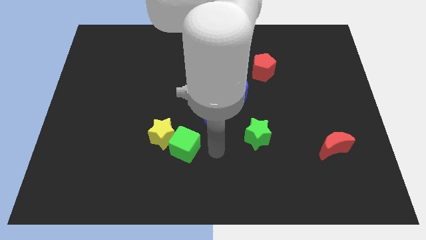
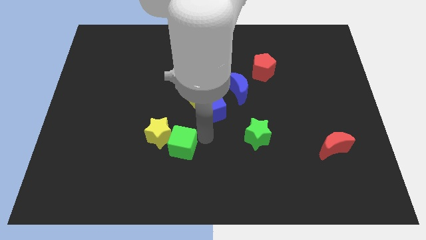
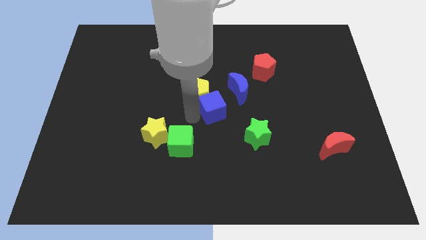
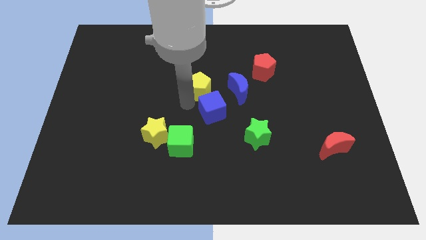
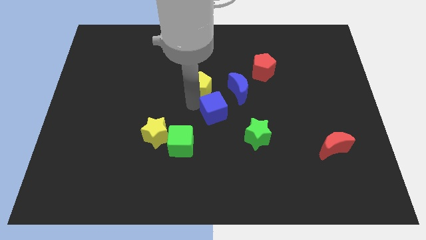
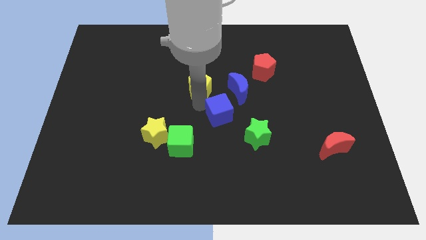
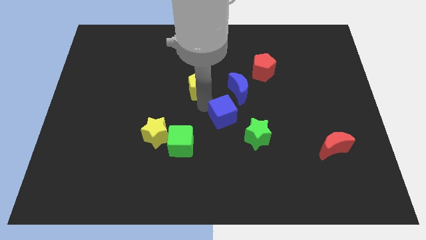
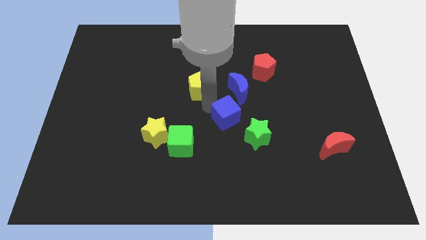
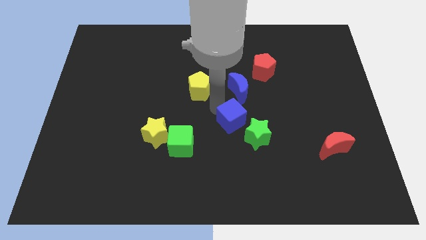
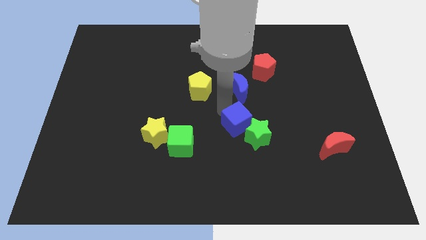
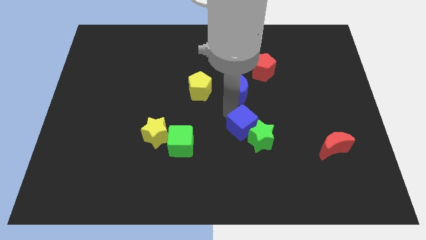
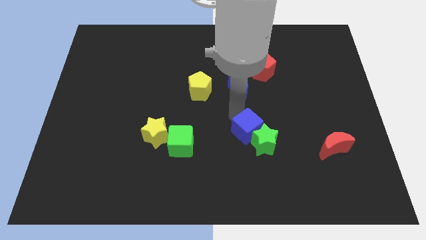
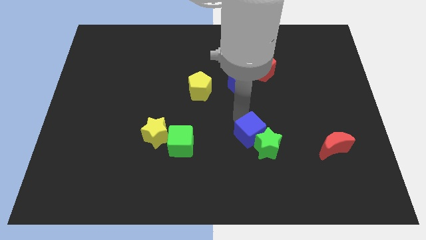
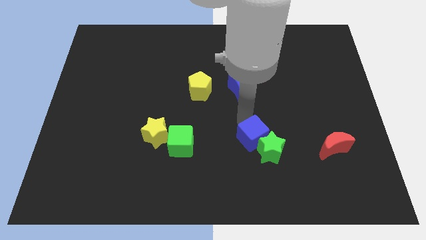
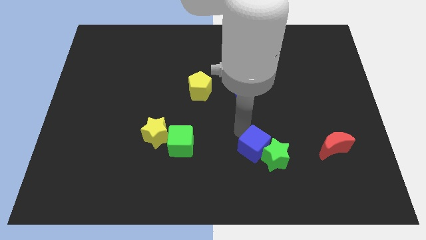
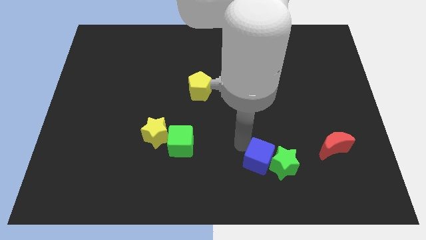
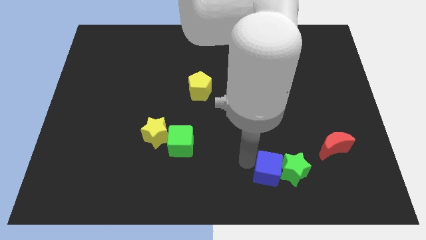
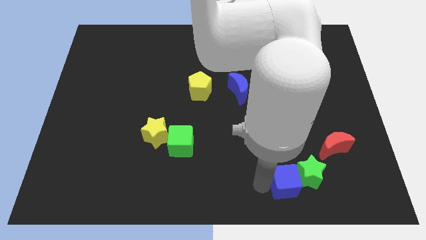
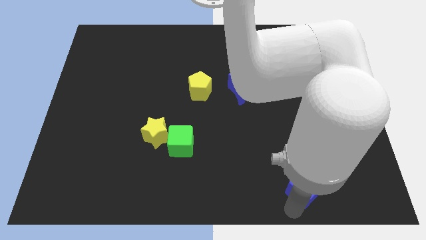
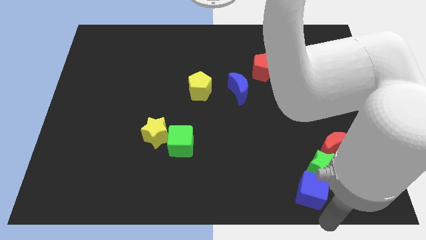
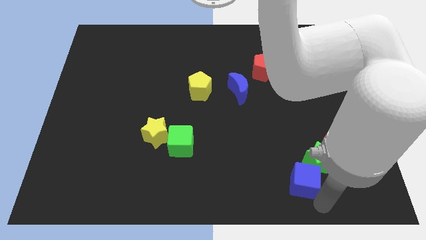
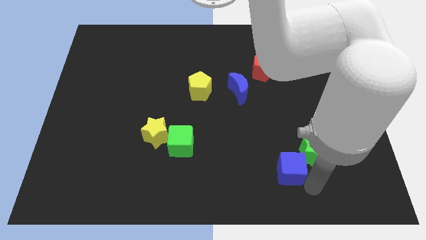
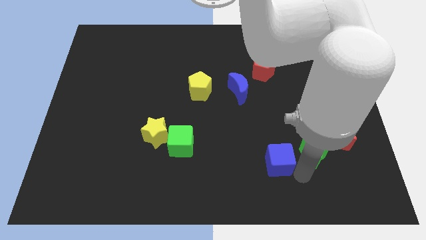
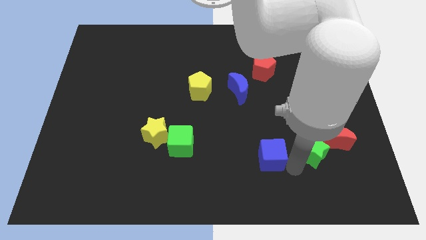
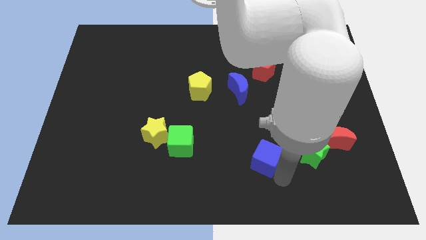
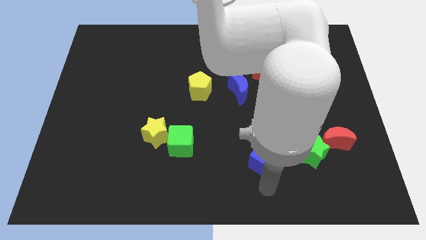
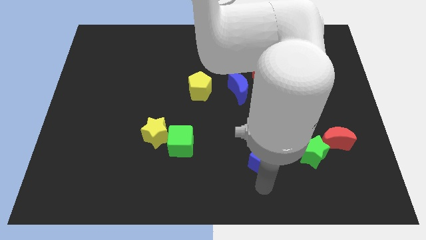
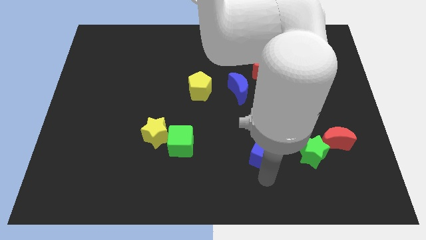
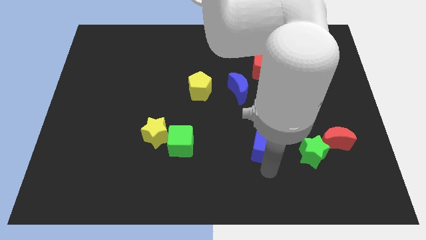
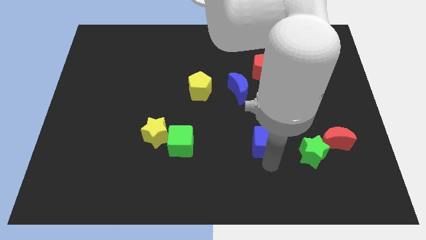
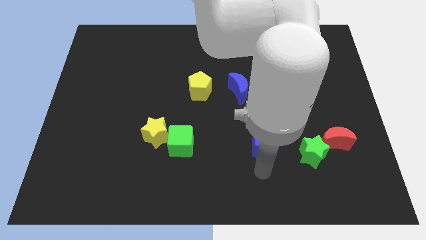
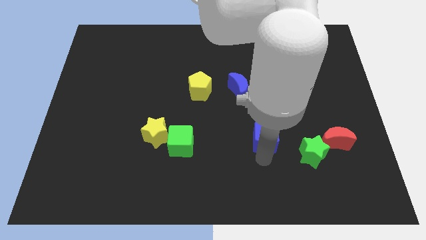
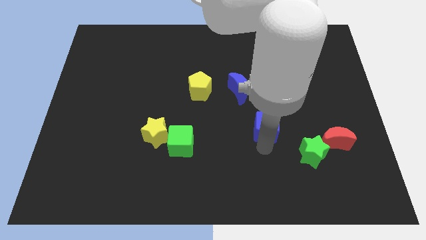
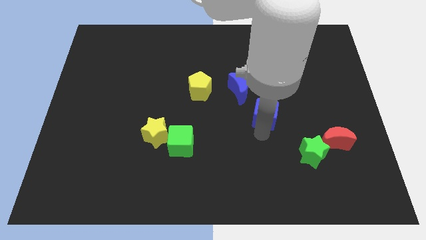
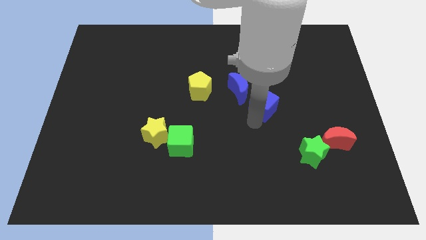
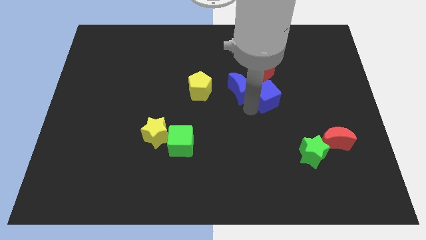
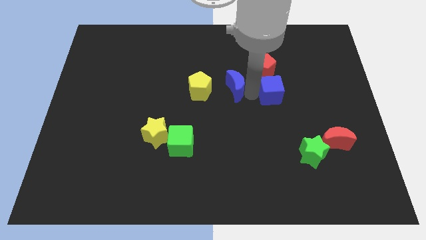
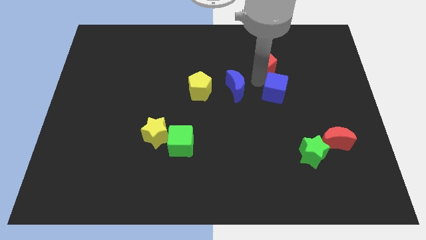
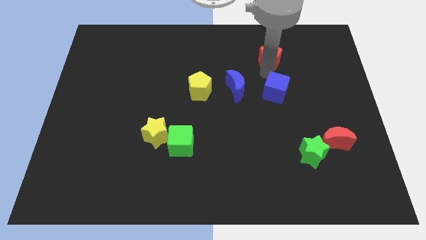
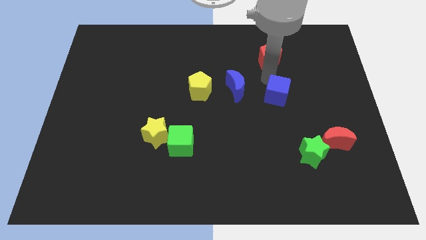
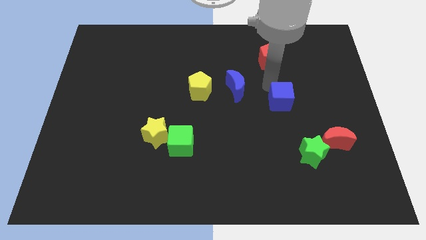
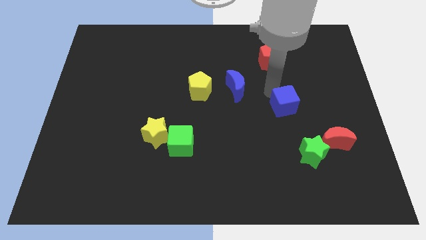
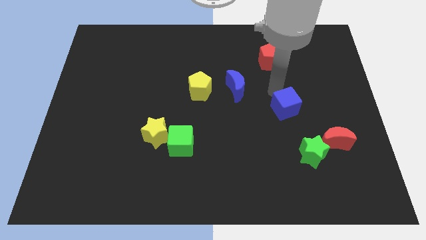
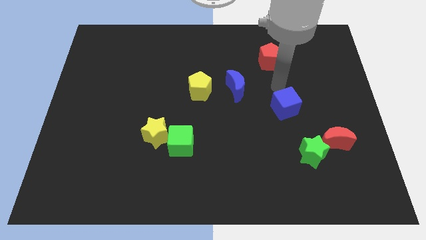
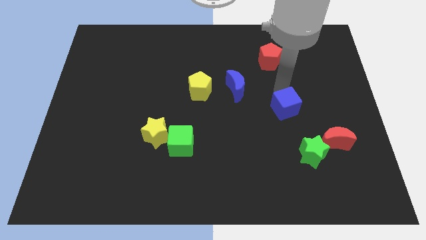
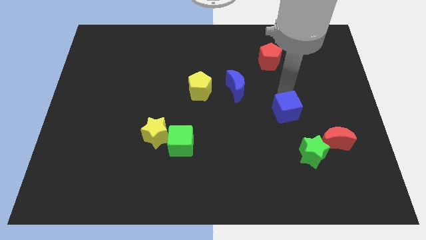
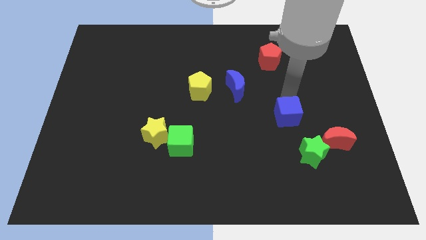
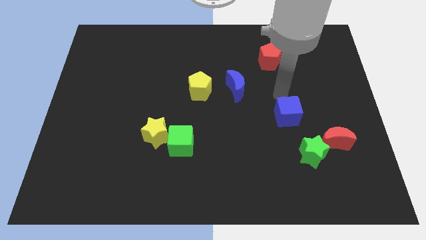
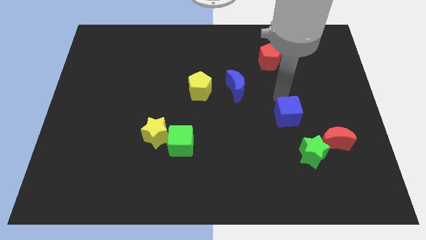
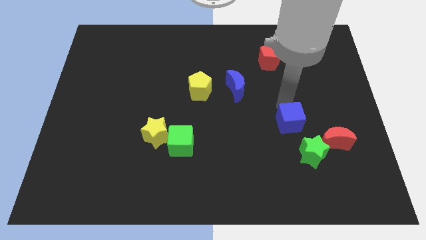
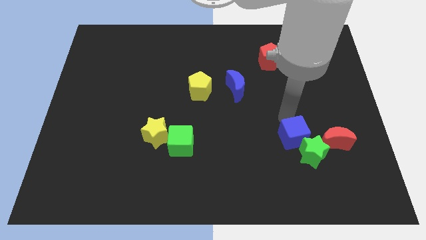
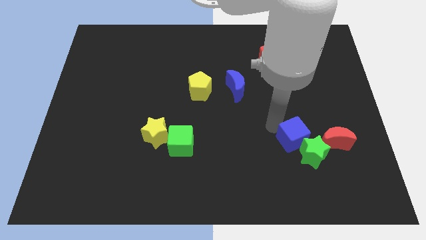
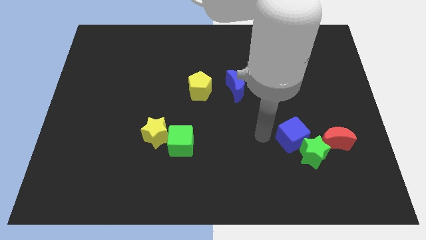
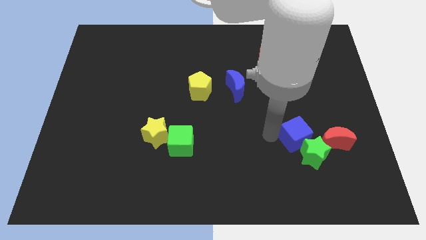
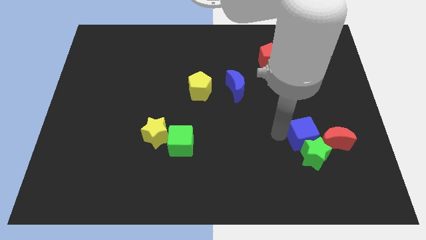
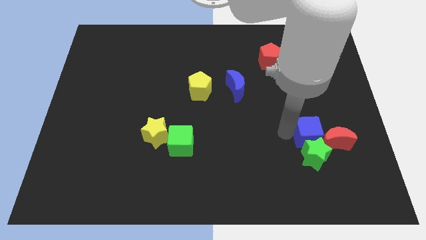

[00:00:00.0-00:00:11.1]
slide the blue cube towards the red moon

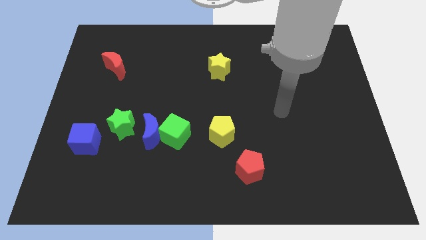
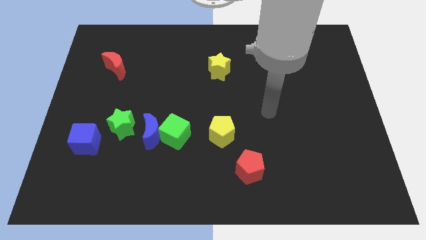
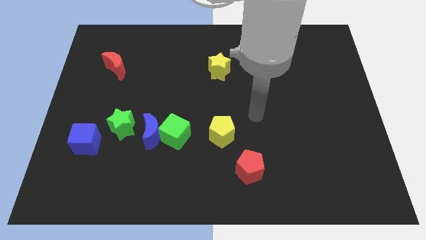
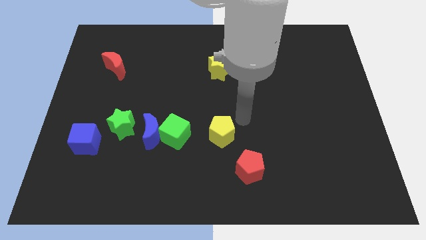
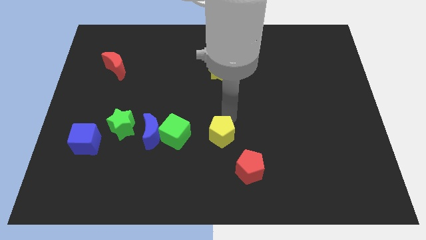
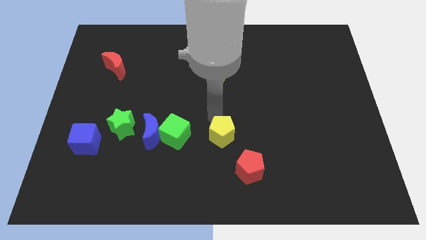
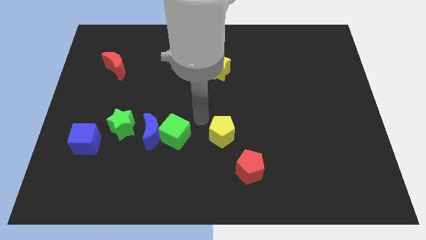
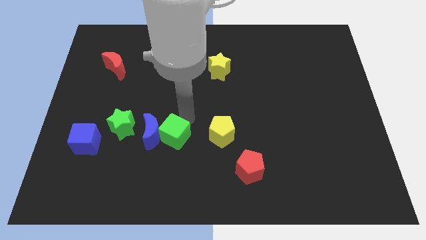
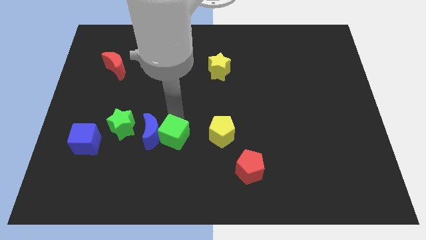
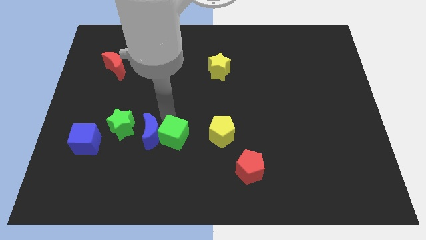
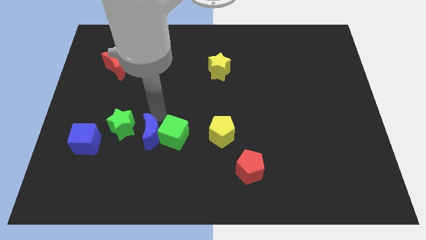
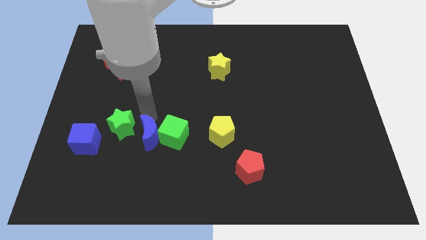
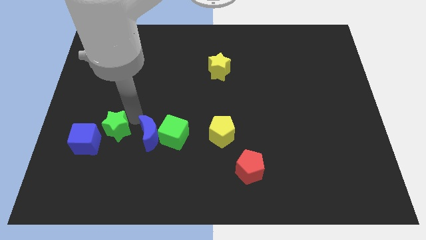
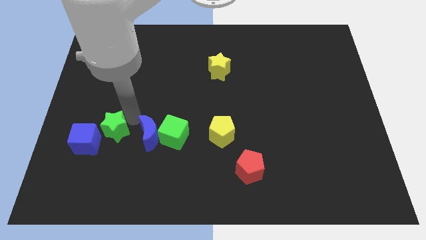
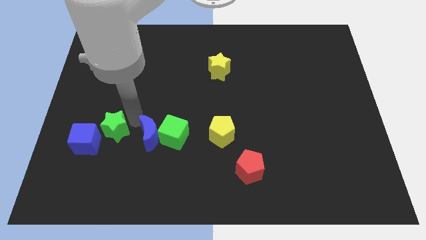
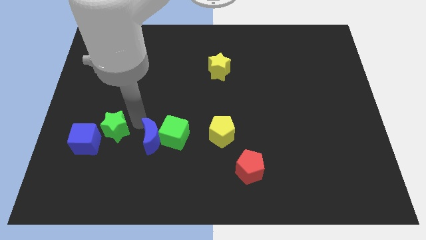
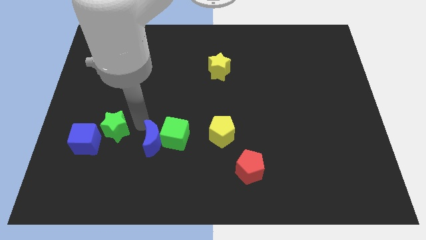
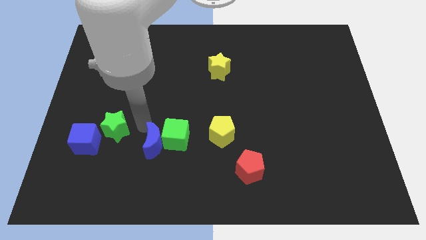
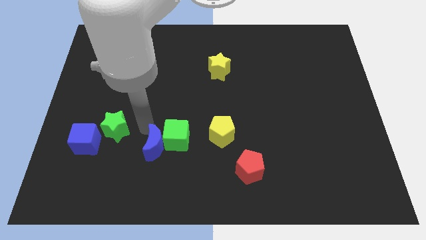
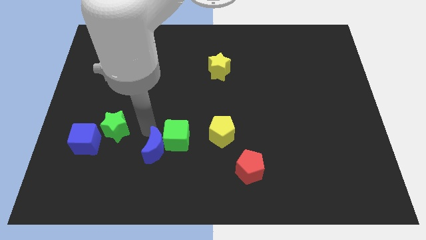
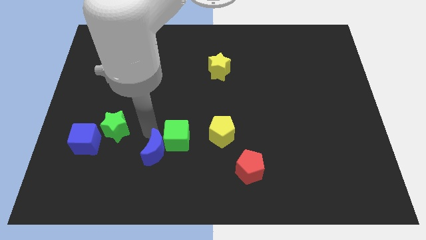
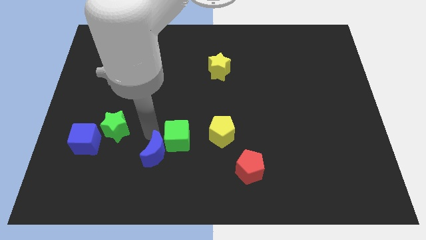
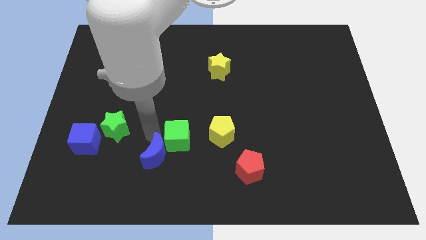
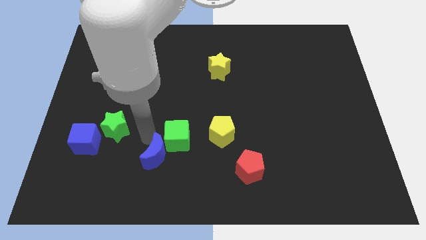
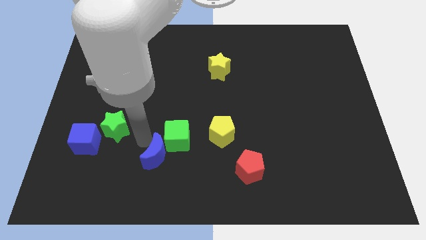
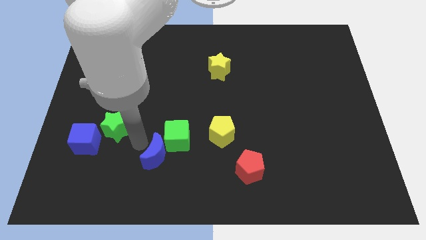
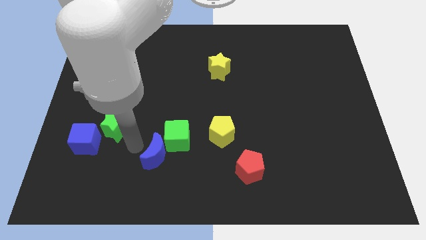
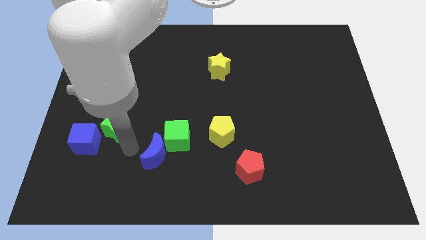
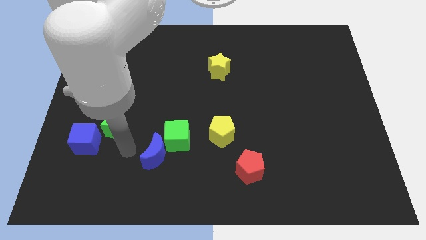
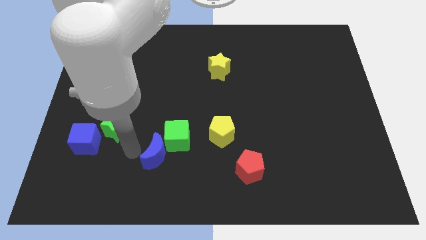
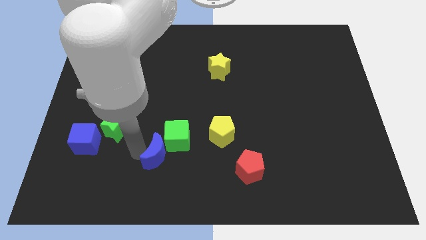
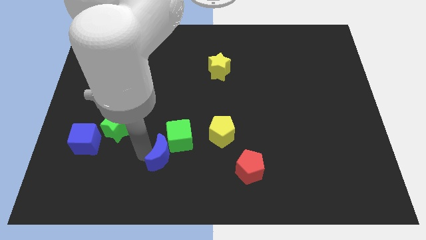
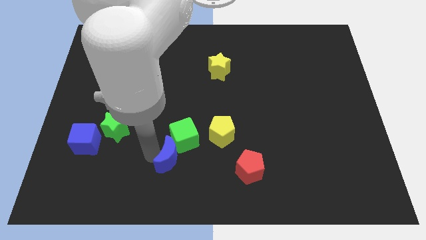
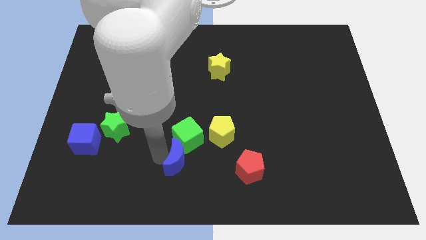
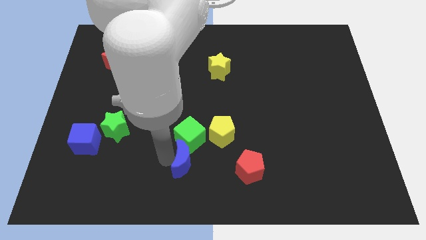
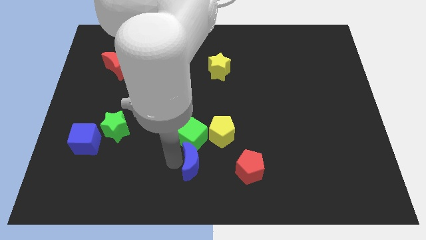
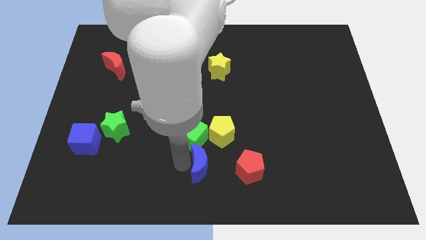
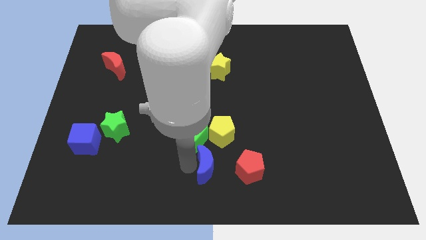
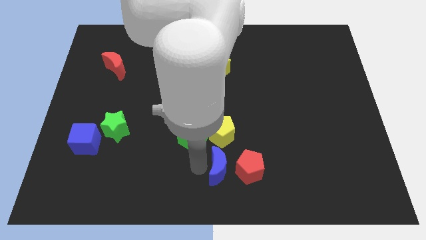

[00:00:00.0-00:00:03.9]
move the blue moon towards the red pentagon
